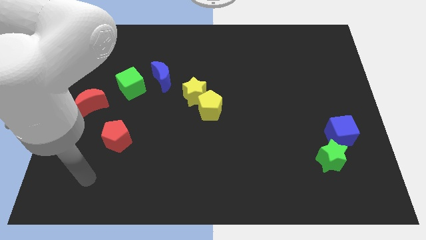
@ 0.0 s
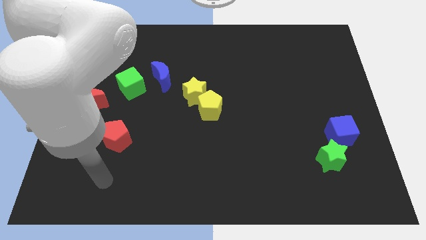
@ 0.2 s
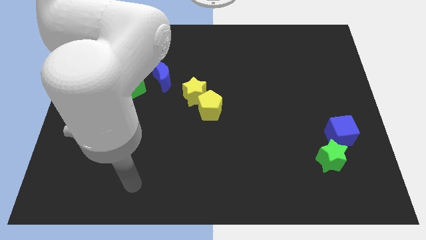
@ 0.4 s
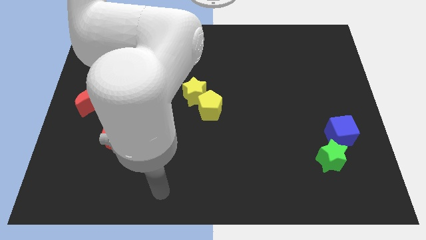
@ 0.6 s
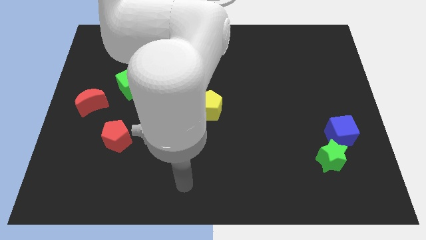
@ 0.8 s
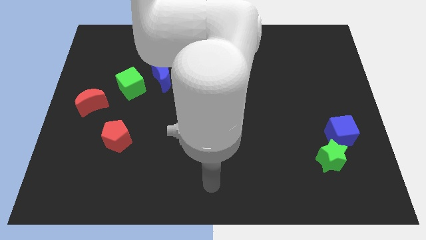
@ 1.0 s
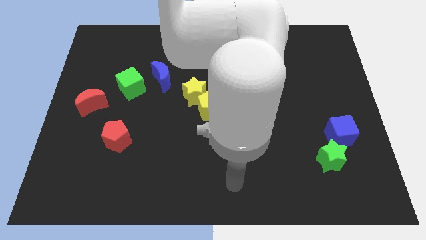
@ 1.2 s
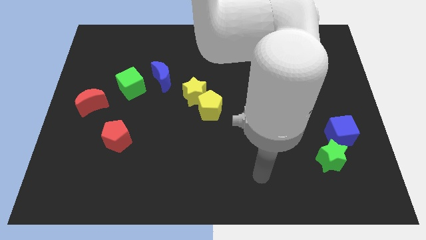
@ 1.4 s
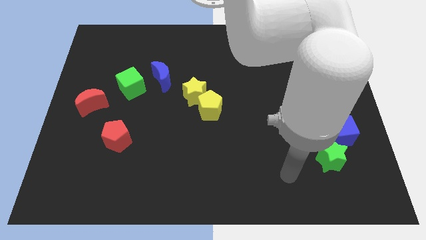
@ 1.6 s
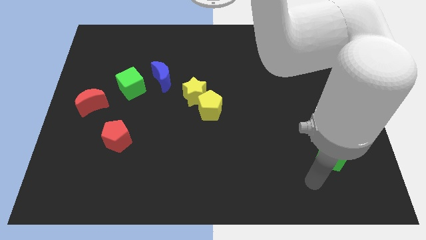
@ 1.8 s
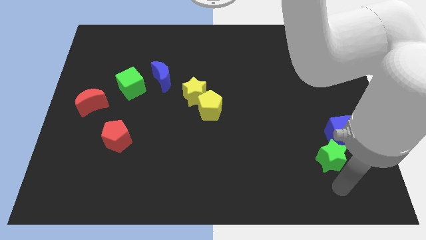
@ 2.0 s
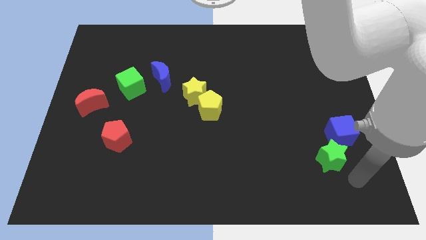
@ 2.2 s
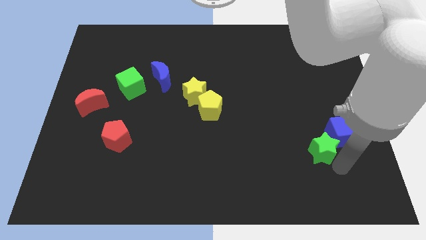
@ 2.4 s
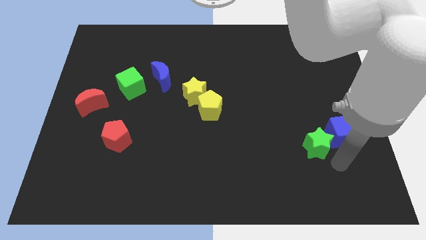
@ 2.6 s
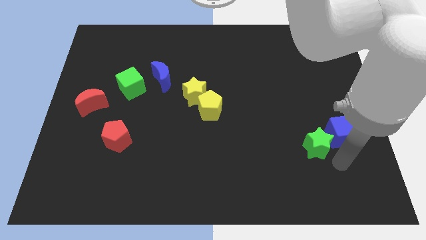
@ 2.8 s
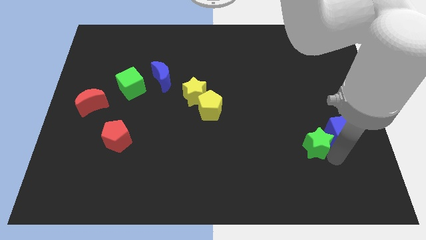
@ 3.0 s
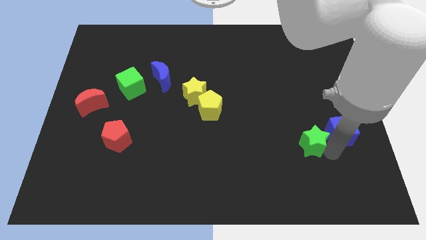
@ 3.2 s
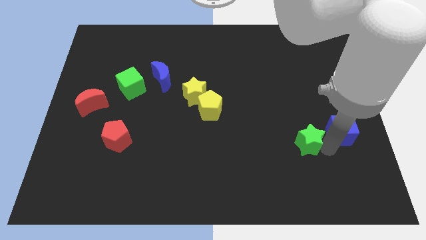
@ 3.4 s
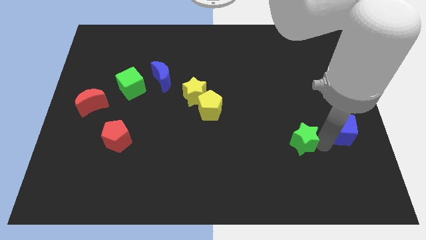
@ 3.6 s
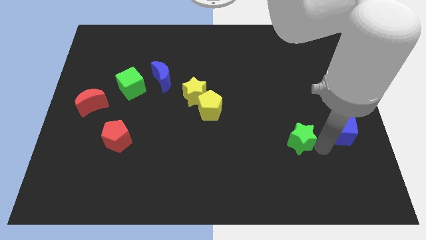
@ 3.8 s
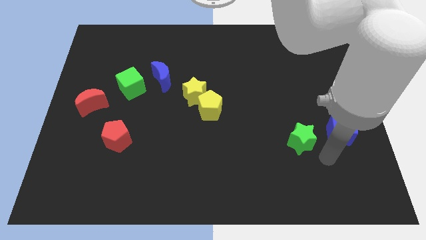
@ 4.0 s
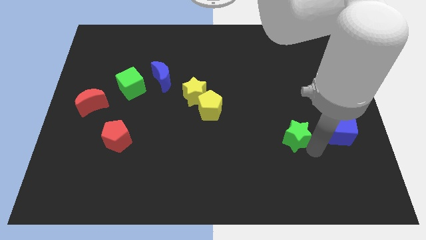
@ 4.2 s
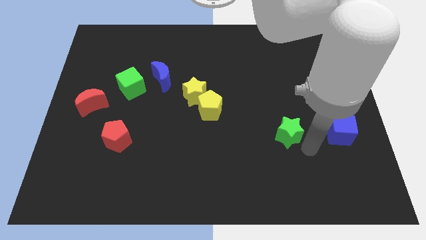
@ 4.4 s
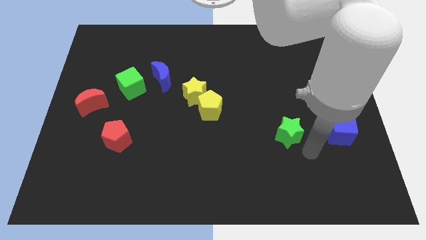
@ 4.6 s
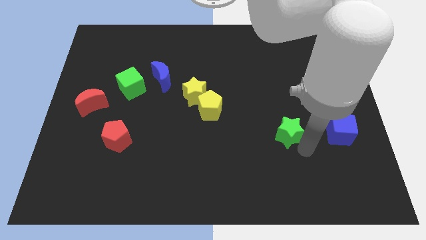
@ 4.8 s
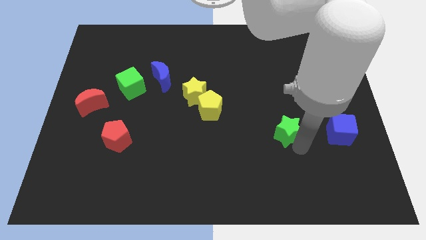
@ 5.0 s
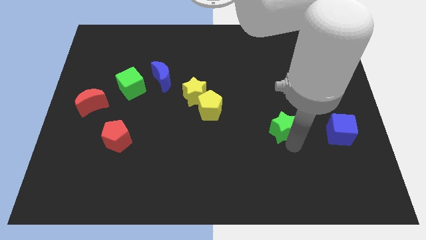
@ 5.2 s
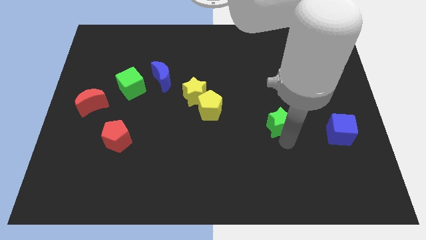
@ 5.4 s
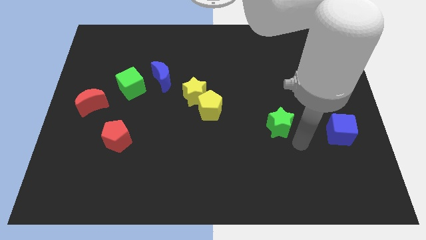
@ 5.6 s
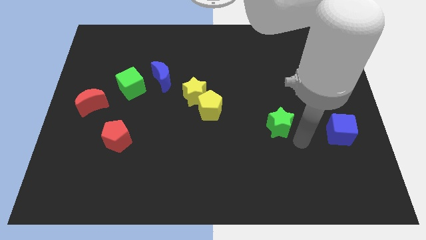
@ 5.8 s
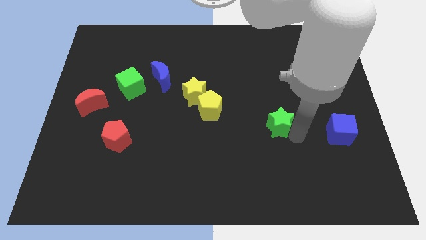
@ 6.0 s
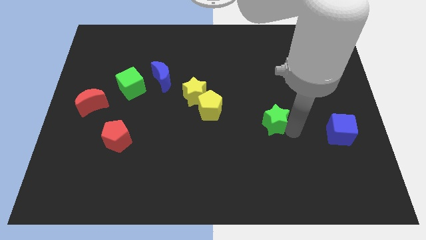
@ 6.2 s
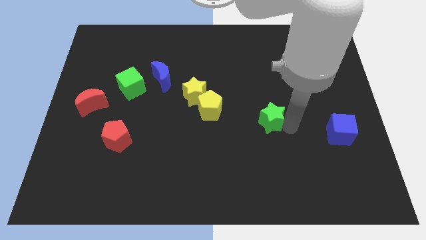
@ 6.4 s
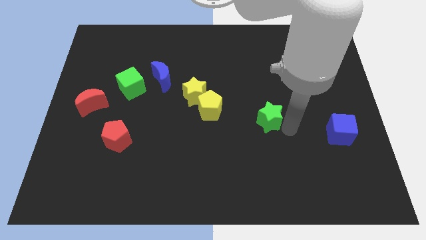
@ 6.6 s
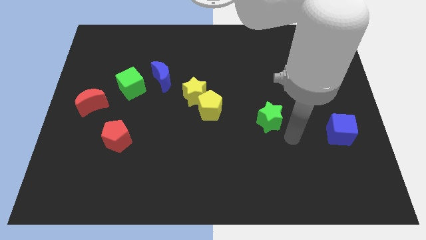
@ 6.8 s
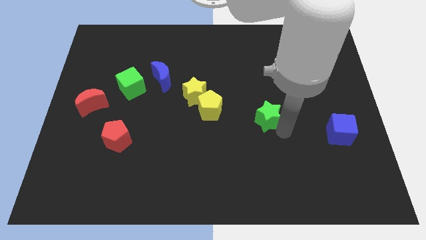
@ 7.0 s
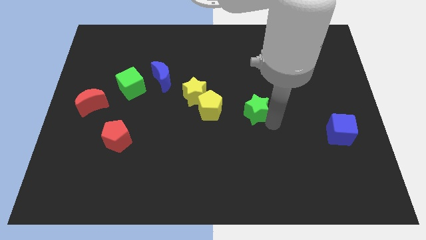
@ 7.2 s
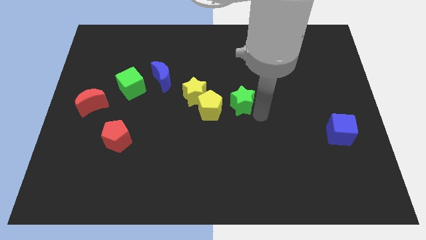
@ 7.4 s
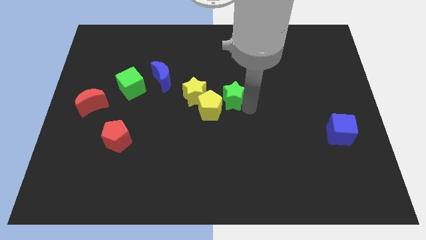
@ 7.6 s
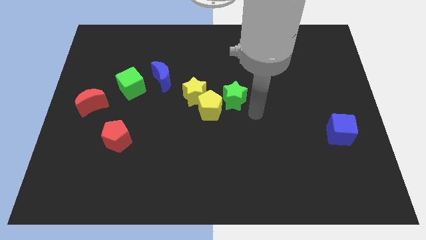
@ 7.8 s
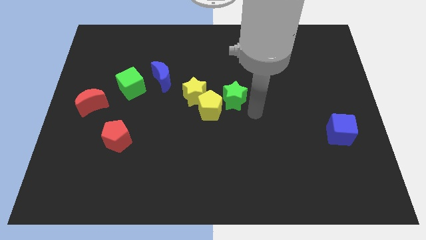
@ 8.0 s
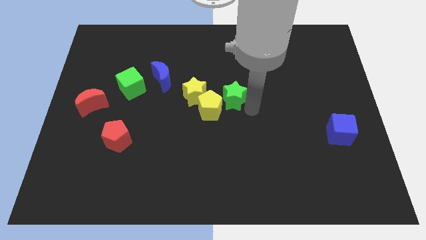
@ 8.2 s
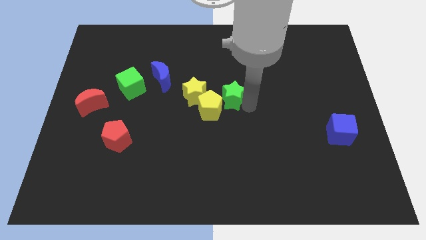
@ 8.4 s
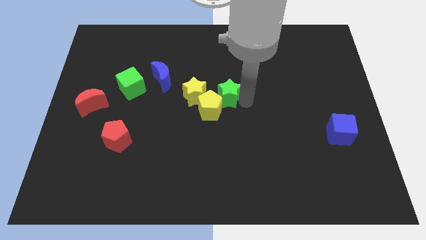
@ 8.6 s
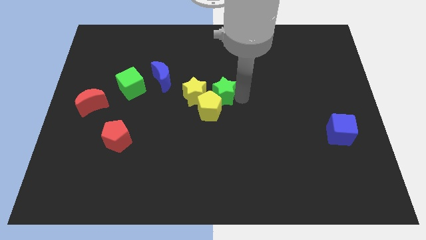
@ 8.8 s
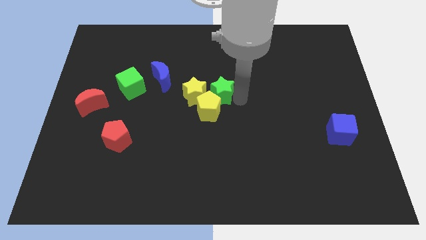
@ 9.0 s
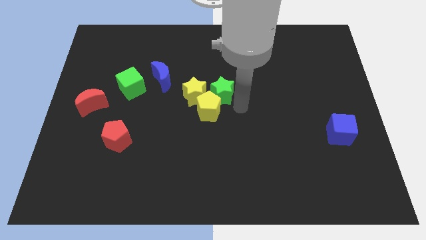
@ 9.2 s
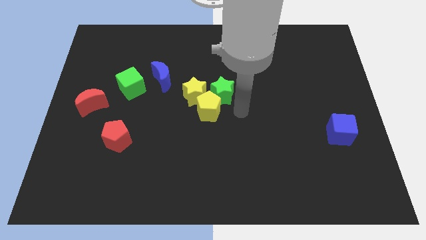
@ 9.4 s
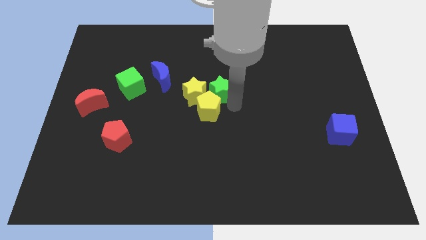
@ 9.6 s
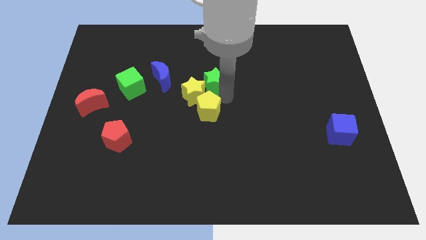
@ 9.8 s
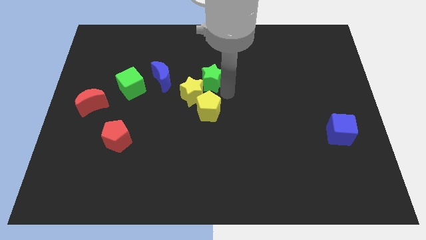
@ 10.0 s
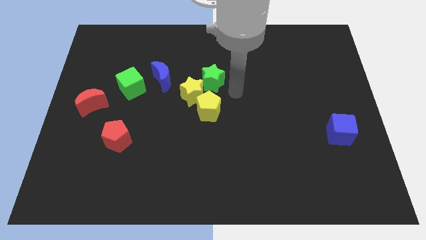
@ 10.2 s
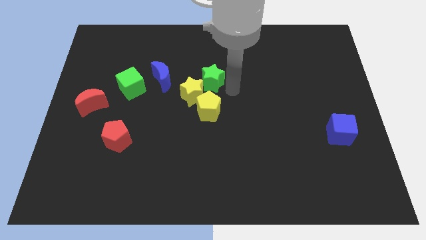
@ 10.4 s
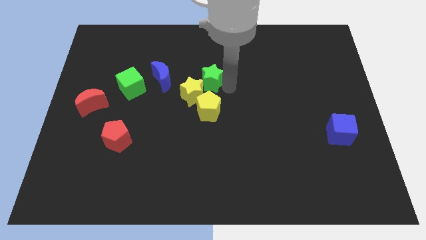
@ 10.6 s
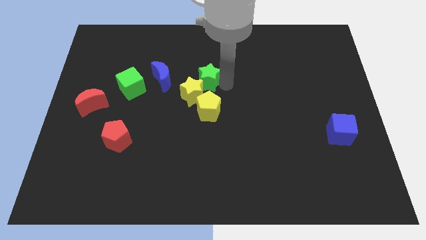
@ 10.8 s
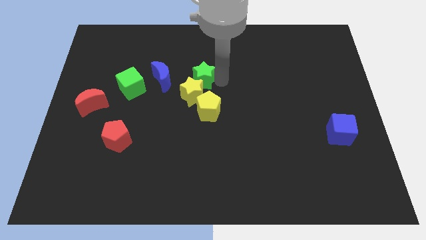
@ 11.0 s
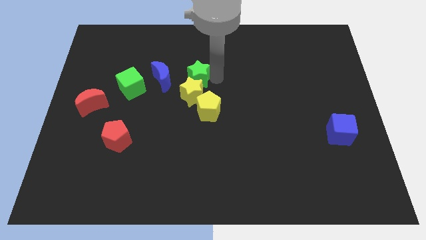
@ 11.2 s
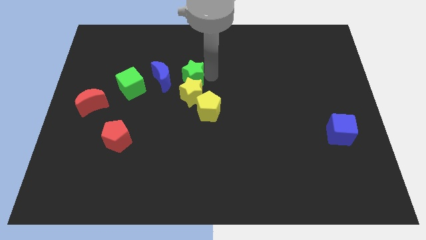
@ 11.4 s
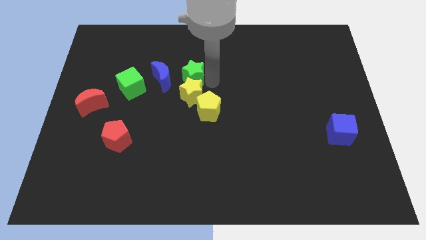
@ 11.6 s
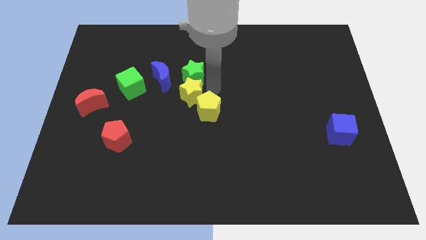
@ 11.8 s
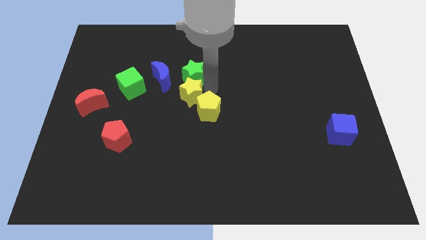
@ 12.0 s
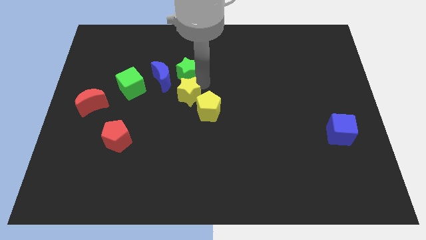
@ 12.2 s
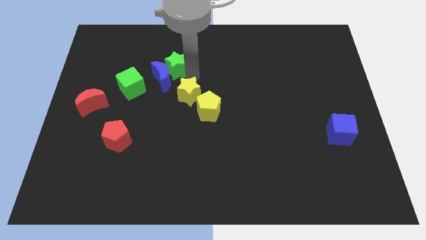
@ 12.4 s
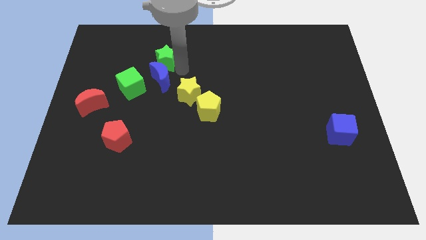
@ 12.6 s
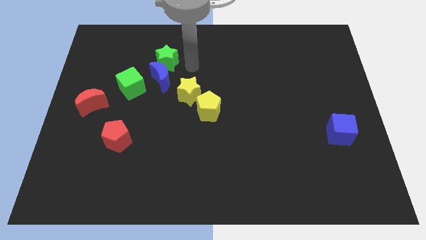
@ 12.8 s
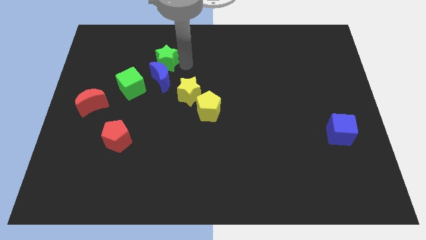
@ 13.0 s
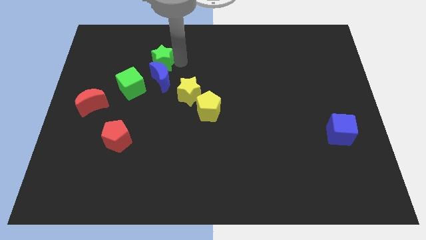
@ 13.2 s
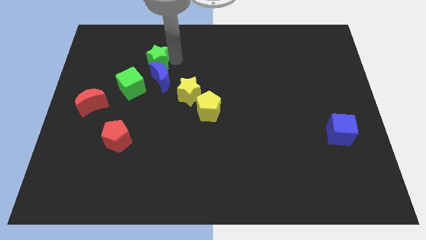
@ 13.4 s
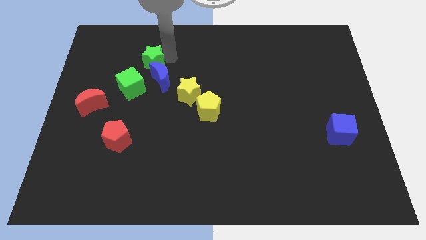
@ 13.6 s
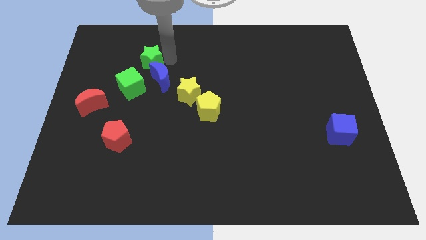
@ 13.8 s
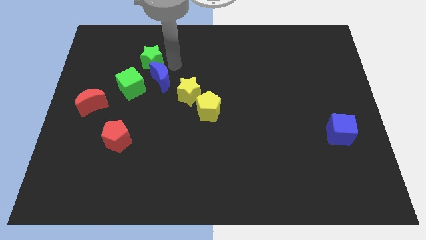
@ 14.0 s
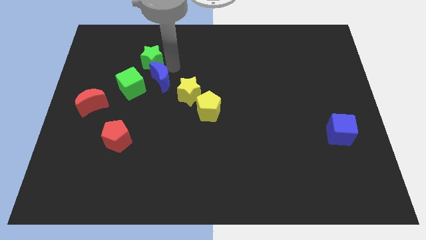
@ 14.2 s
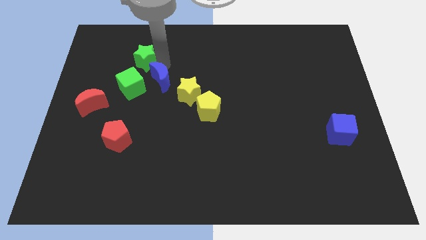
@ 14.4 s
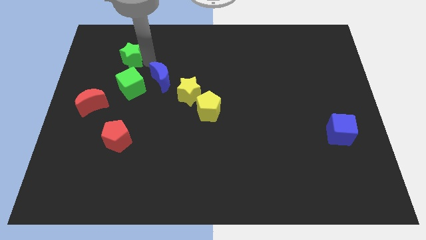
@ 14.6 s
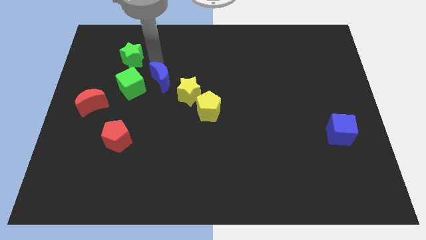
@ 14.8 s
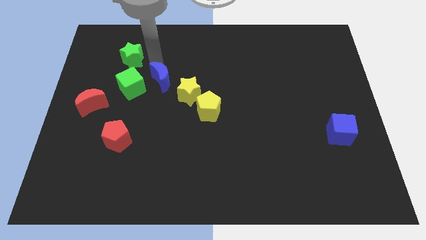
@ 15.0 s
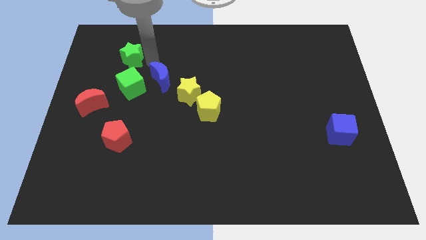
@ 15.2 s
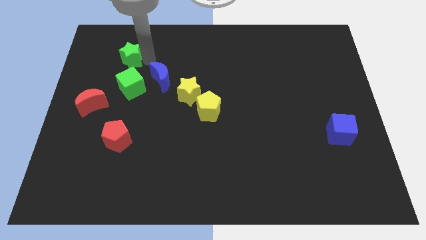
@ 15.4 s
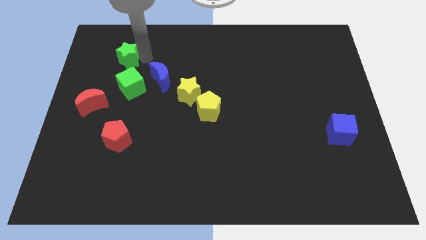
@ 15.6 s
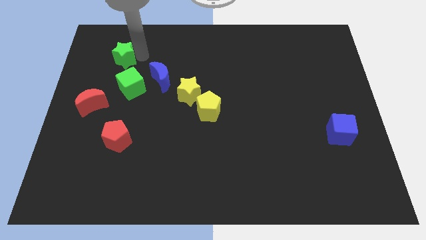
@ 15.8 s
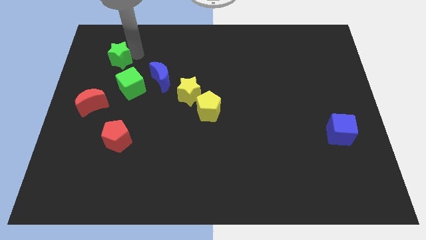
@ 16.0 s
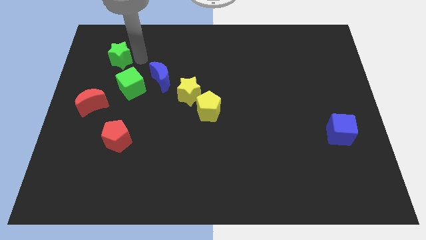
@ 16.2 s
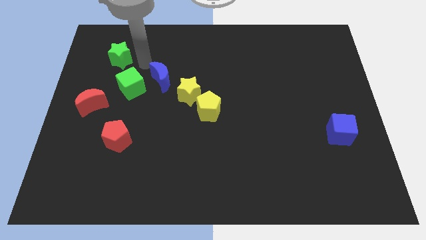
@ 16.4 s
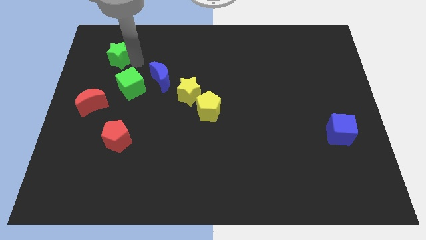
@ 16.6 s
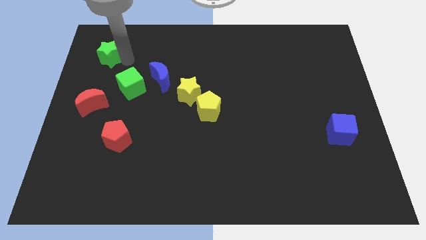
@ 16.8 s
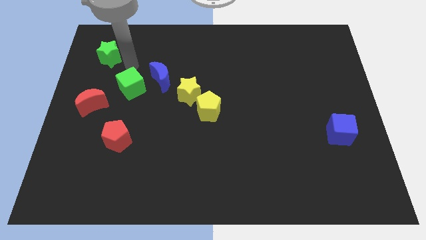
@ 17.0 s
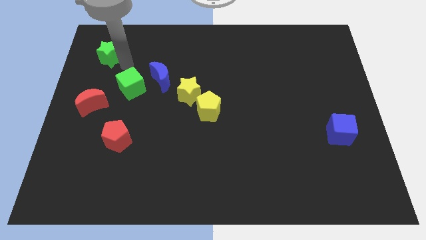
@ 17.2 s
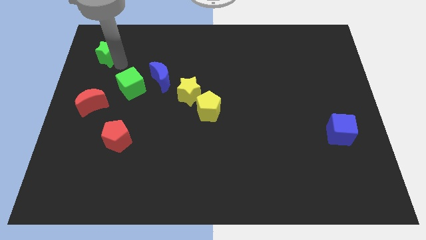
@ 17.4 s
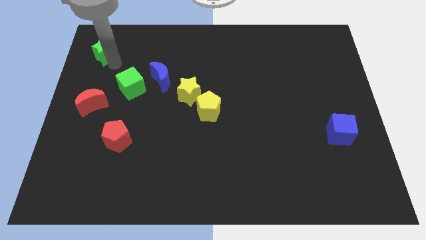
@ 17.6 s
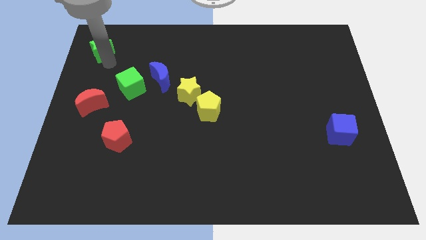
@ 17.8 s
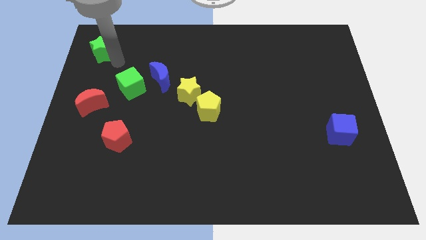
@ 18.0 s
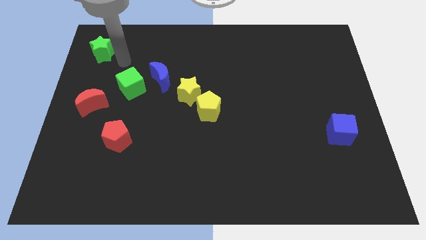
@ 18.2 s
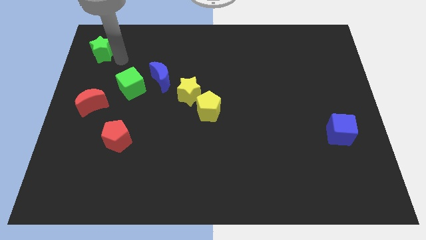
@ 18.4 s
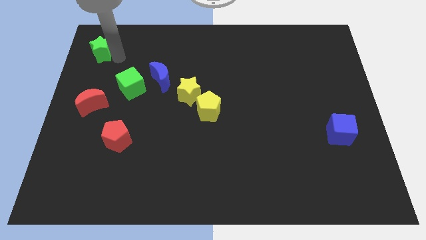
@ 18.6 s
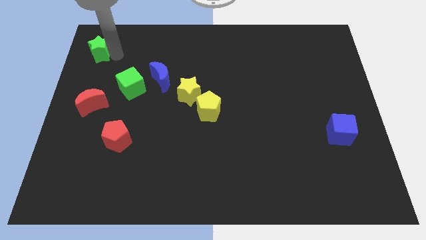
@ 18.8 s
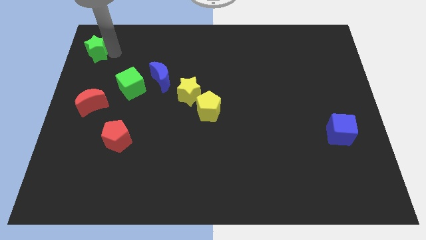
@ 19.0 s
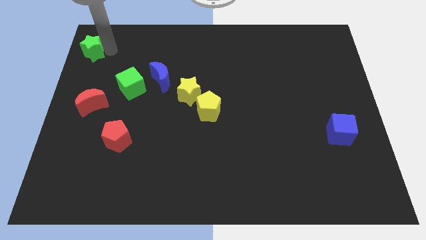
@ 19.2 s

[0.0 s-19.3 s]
move the green star to the top left of the board
